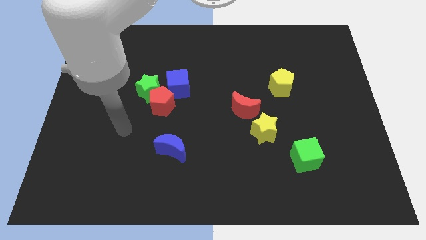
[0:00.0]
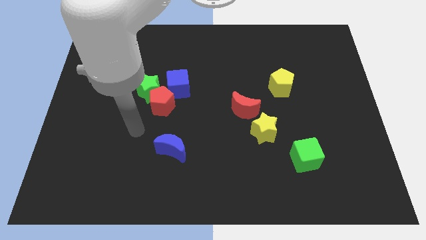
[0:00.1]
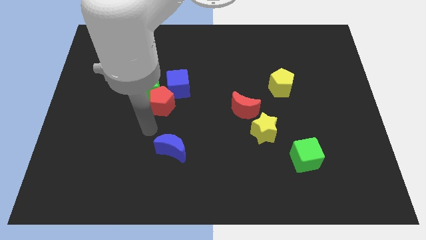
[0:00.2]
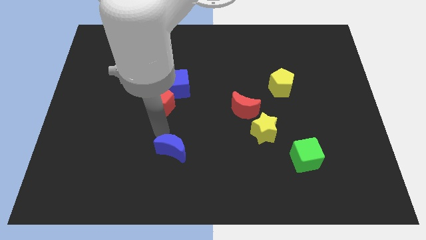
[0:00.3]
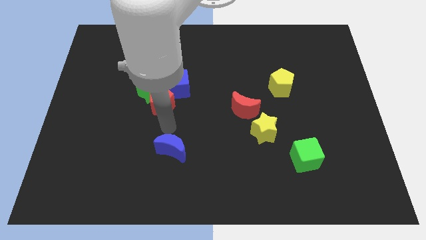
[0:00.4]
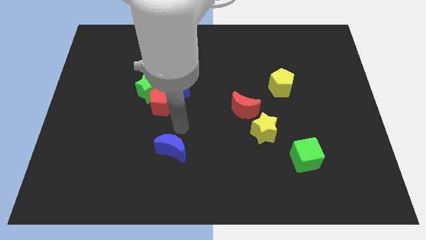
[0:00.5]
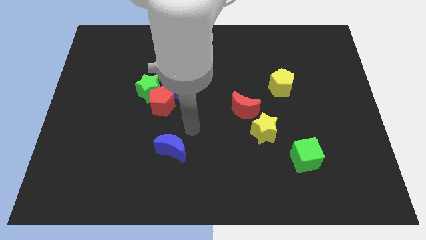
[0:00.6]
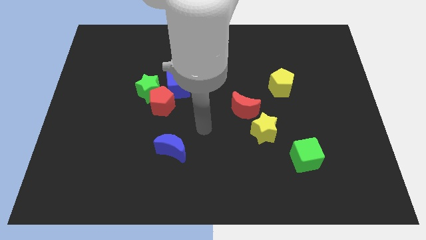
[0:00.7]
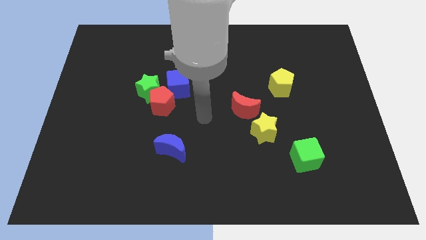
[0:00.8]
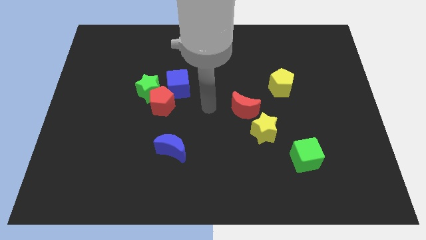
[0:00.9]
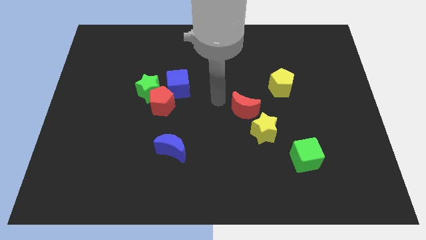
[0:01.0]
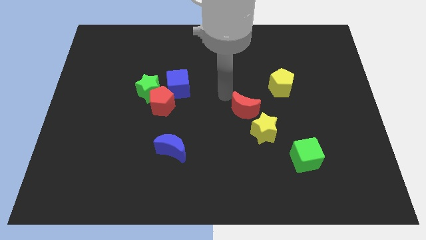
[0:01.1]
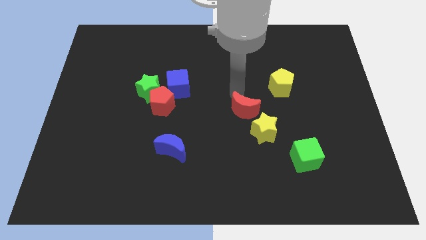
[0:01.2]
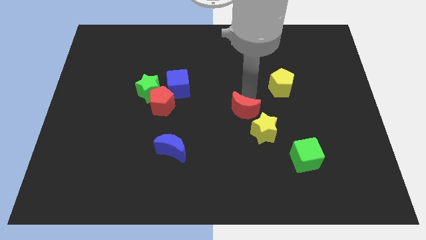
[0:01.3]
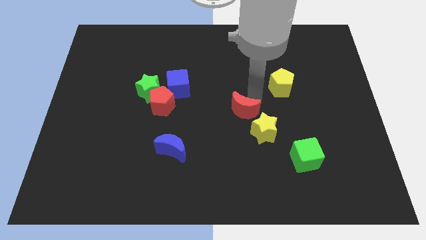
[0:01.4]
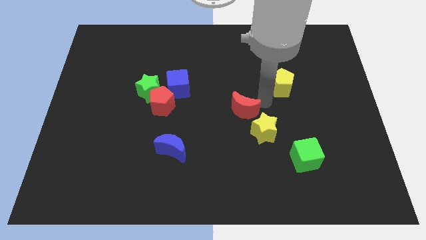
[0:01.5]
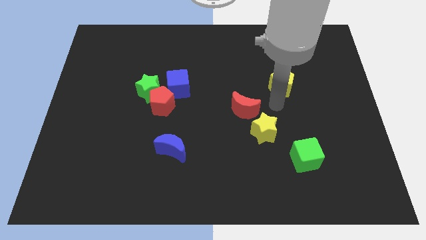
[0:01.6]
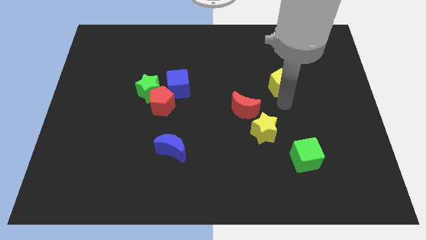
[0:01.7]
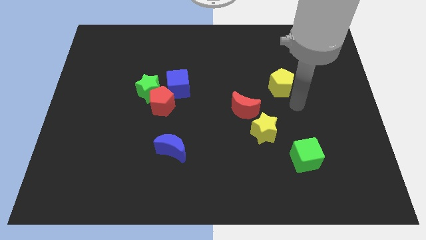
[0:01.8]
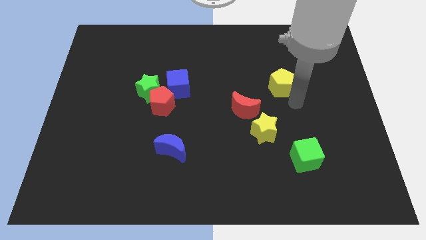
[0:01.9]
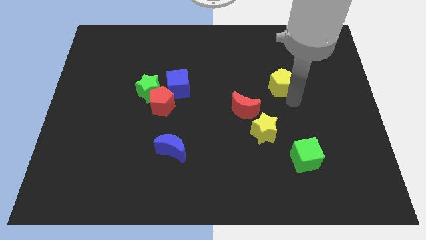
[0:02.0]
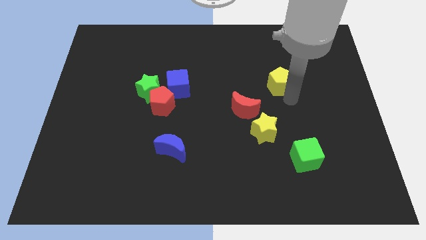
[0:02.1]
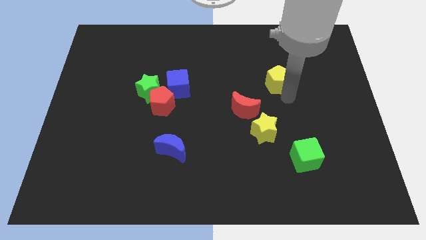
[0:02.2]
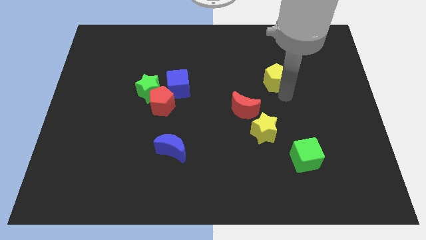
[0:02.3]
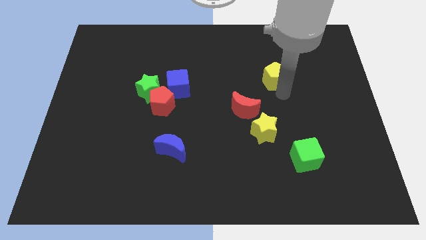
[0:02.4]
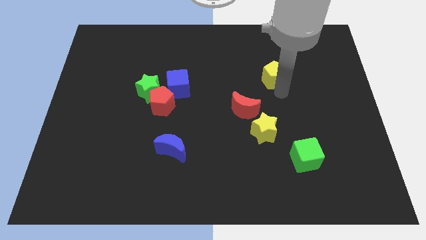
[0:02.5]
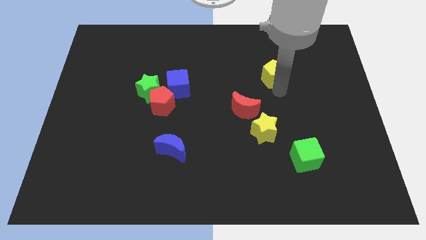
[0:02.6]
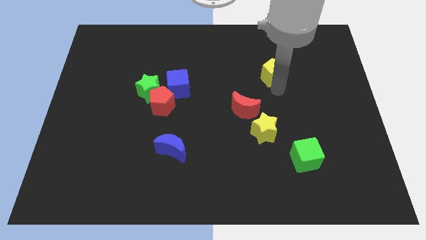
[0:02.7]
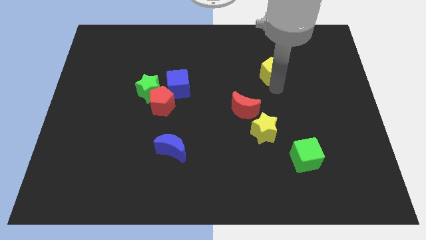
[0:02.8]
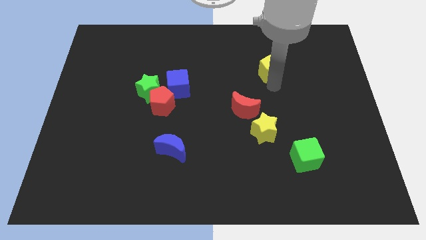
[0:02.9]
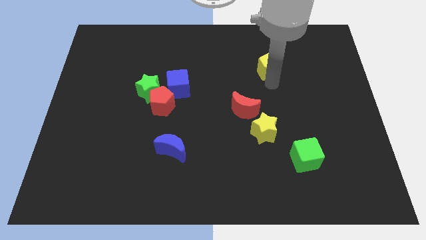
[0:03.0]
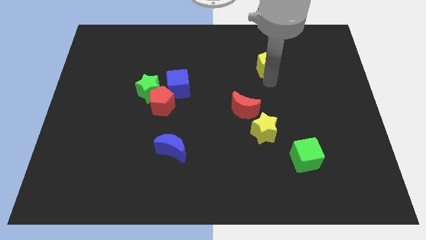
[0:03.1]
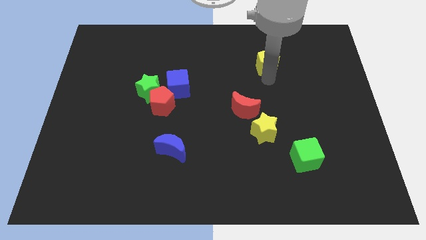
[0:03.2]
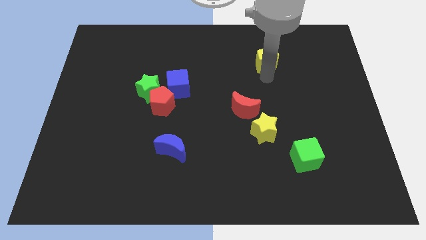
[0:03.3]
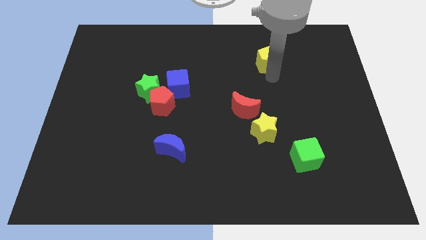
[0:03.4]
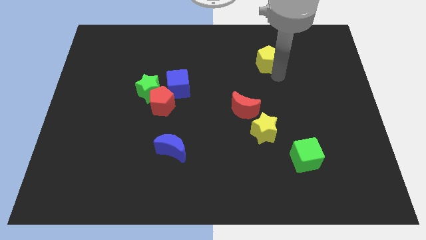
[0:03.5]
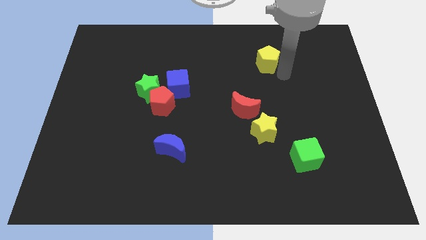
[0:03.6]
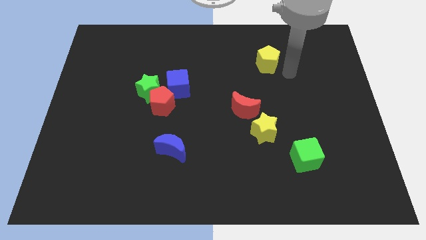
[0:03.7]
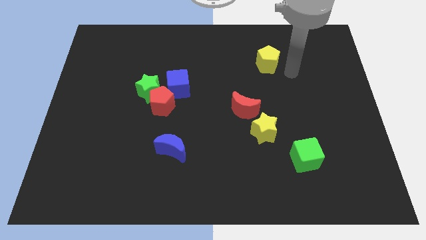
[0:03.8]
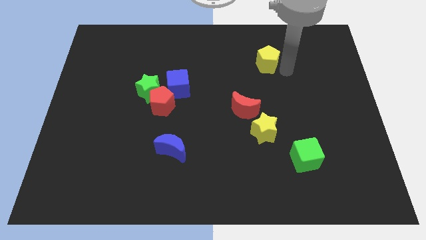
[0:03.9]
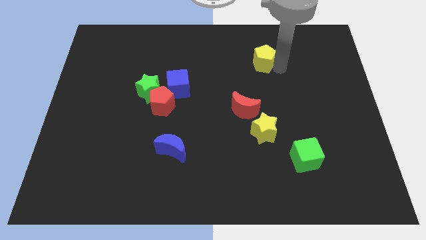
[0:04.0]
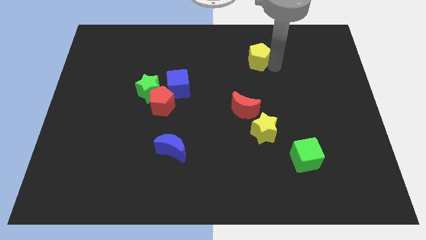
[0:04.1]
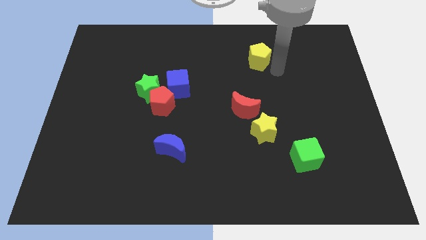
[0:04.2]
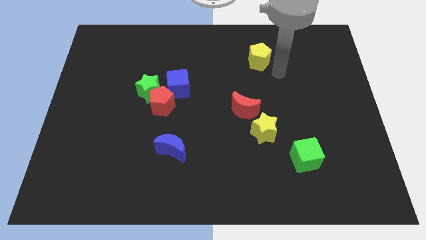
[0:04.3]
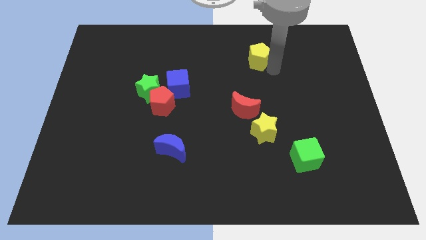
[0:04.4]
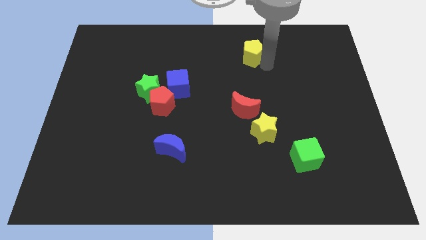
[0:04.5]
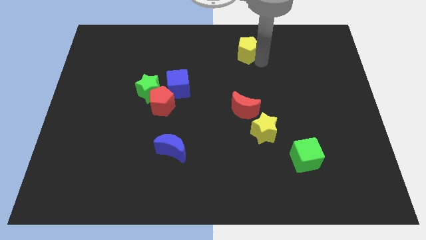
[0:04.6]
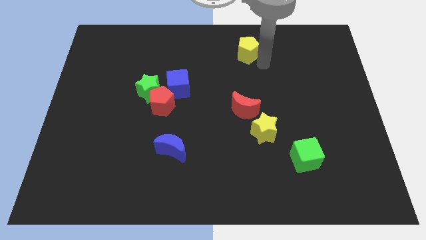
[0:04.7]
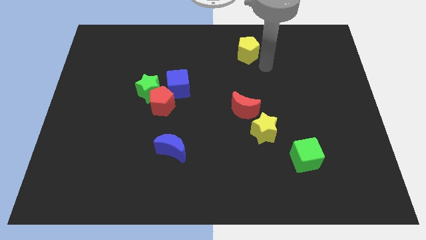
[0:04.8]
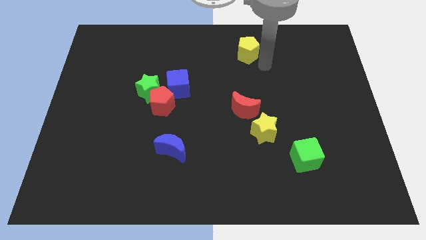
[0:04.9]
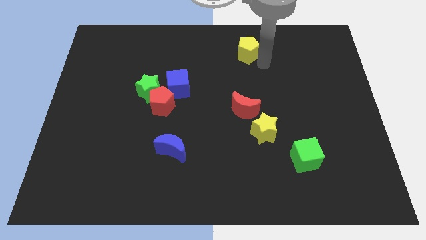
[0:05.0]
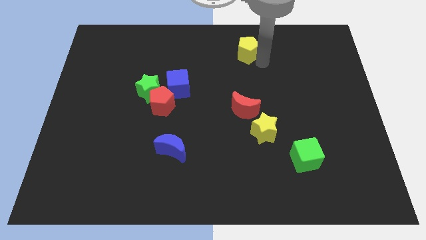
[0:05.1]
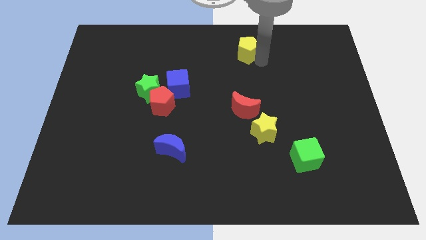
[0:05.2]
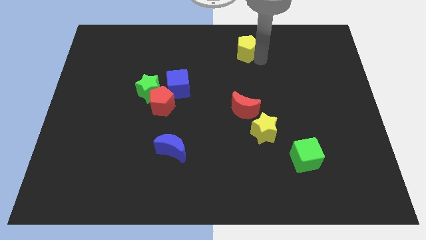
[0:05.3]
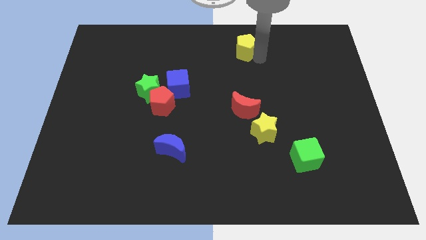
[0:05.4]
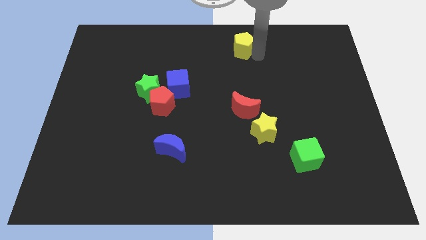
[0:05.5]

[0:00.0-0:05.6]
move the yellow pentagon to the towards your base

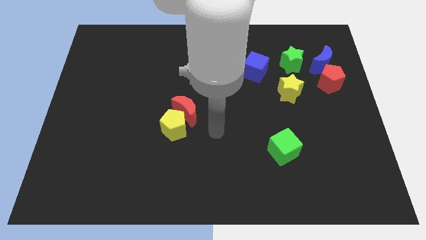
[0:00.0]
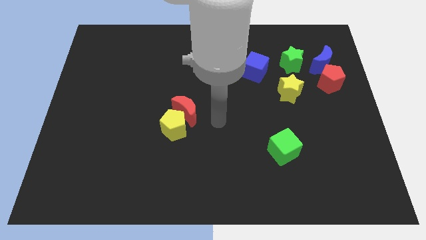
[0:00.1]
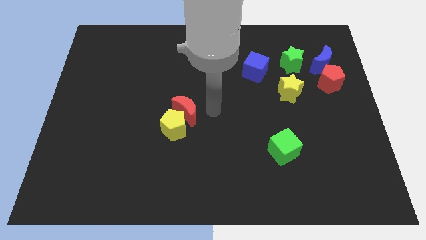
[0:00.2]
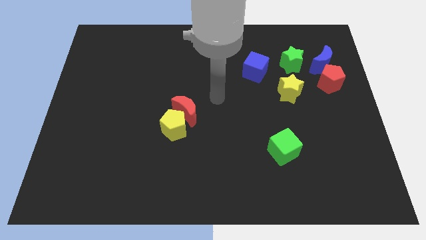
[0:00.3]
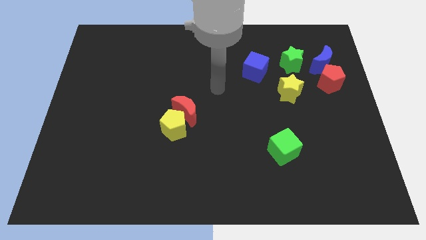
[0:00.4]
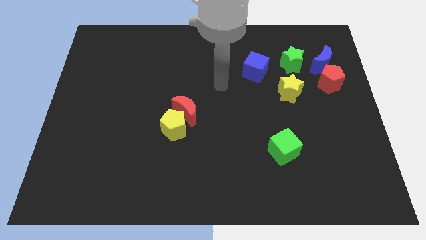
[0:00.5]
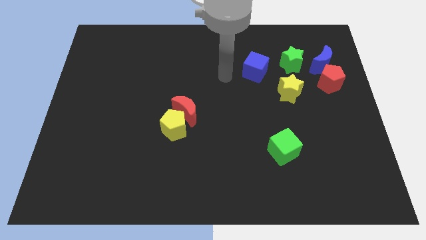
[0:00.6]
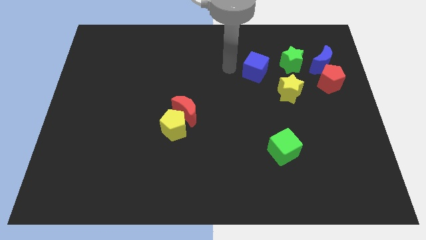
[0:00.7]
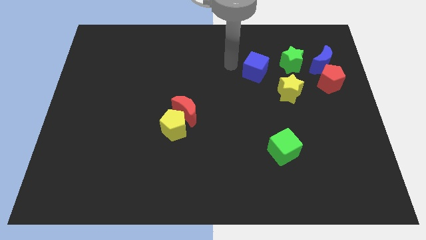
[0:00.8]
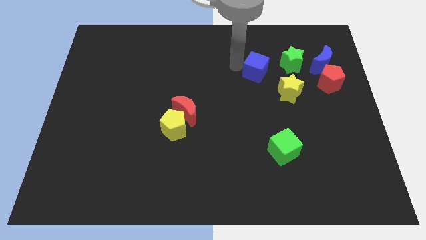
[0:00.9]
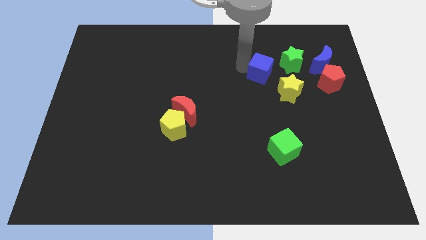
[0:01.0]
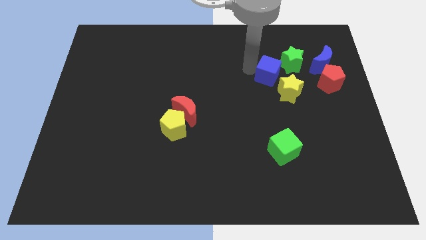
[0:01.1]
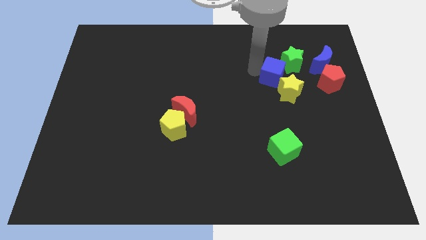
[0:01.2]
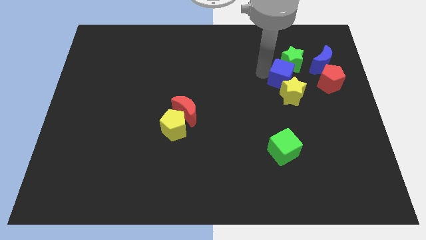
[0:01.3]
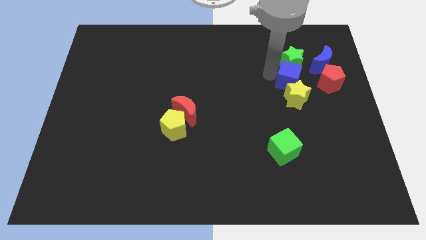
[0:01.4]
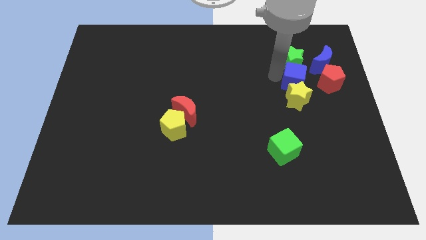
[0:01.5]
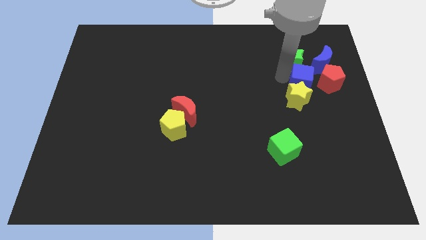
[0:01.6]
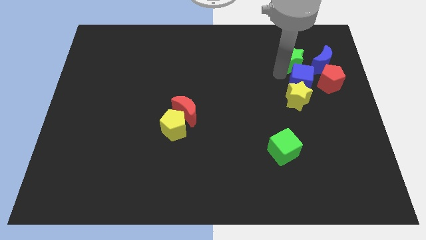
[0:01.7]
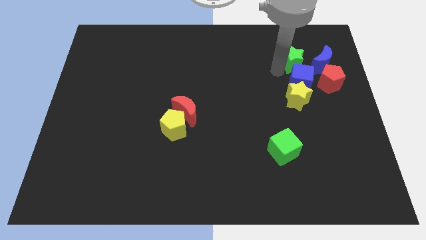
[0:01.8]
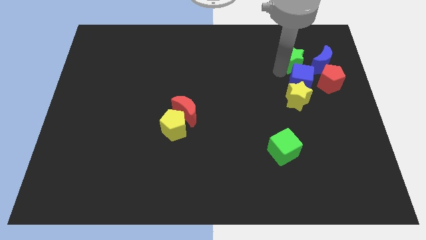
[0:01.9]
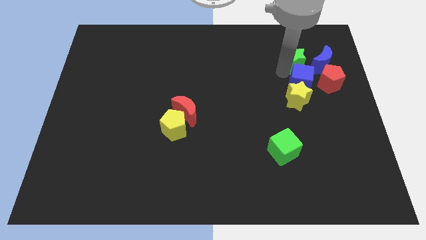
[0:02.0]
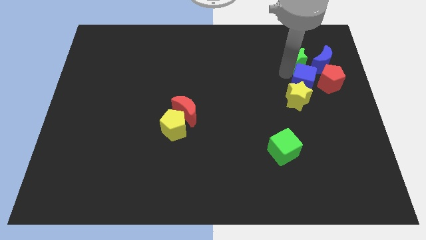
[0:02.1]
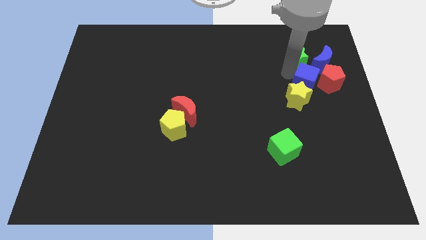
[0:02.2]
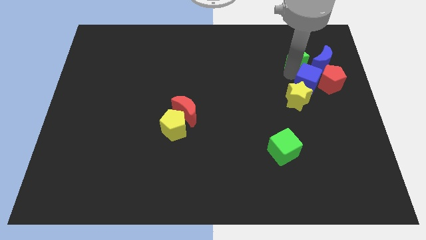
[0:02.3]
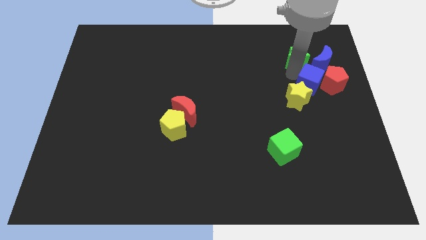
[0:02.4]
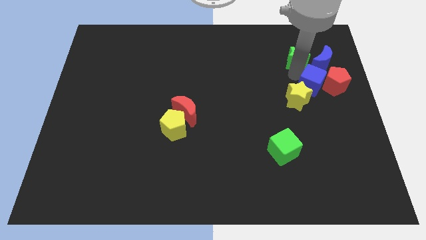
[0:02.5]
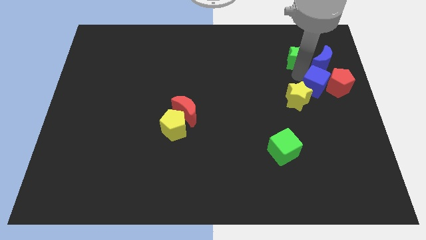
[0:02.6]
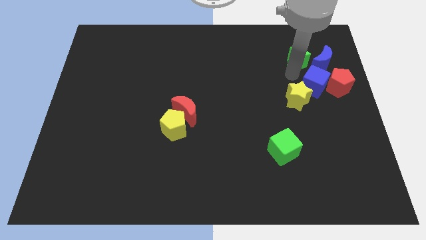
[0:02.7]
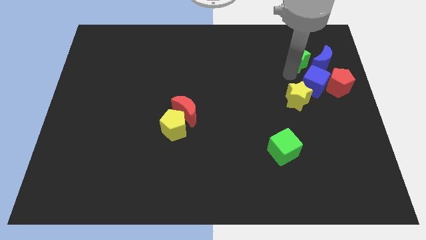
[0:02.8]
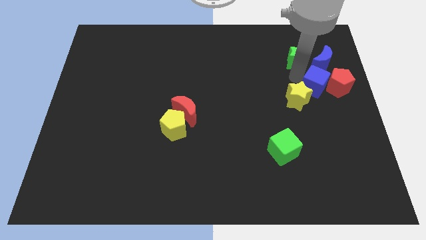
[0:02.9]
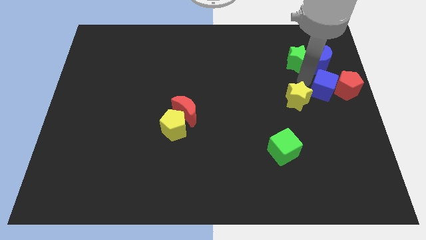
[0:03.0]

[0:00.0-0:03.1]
put the blue cube to the right side
